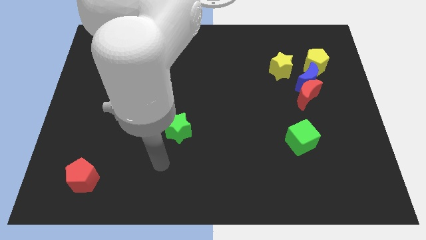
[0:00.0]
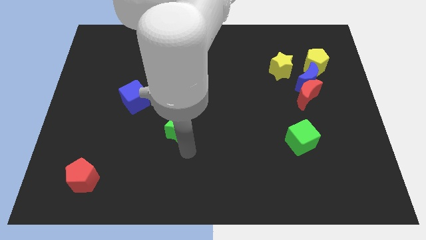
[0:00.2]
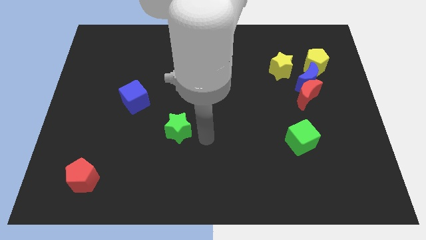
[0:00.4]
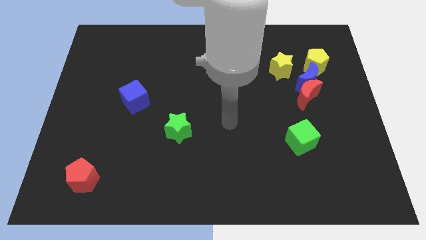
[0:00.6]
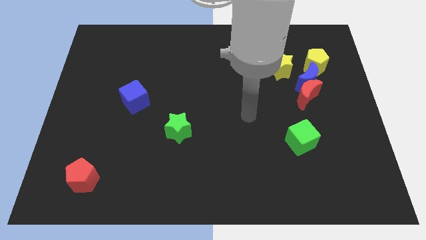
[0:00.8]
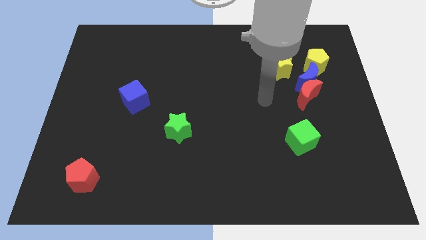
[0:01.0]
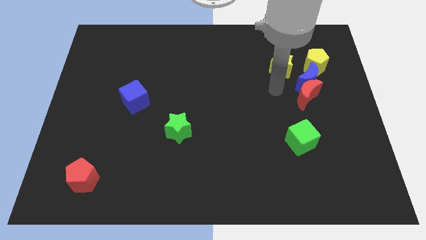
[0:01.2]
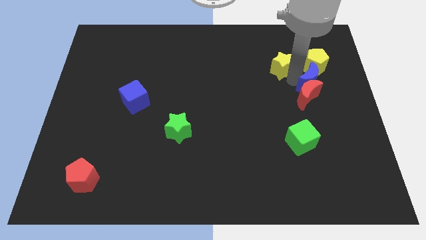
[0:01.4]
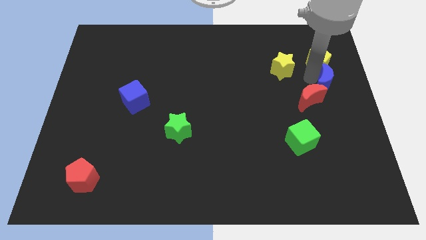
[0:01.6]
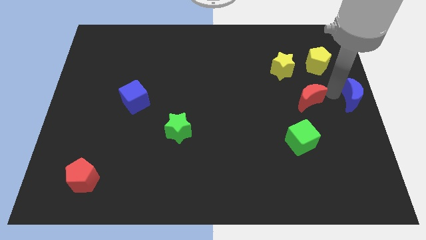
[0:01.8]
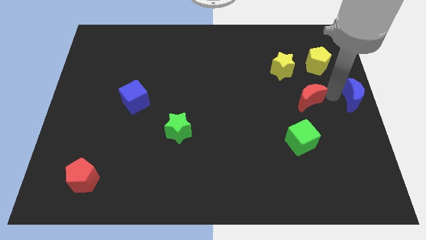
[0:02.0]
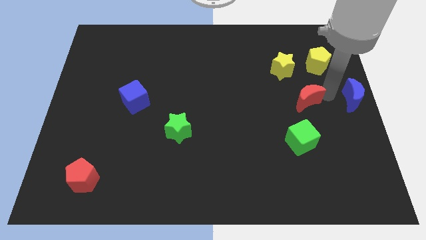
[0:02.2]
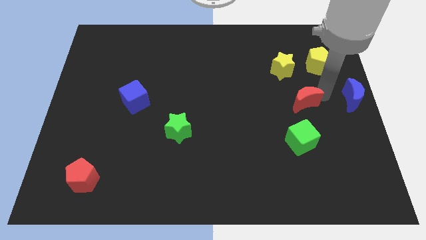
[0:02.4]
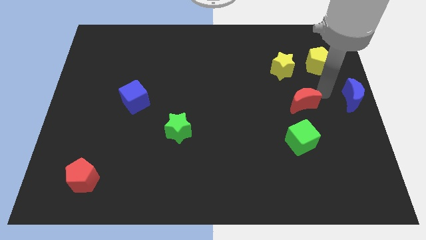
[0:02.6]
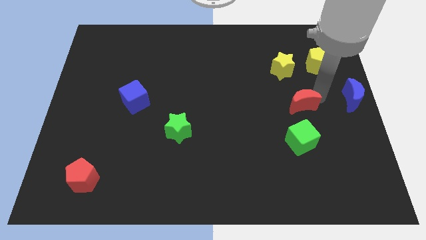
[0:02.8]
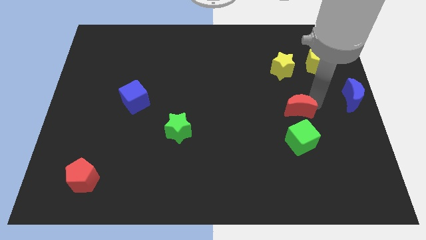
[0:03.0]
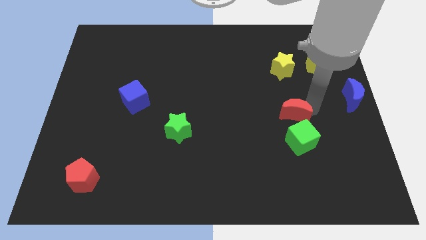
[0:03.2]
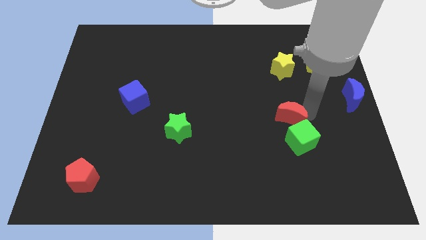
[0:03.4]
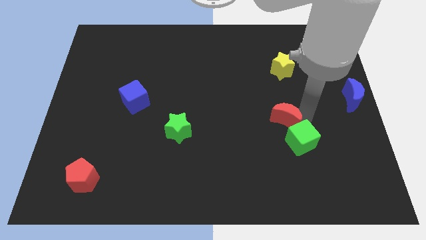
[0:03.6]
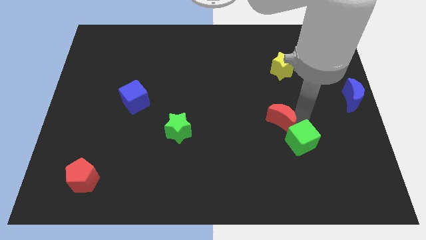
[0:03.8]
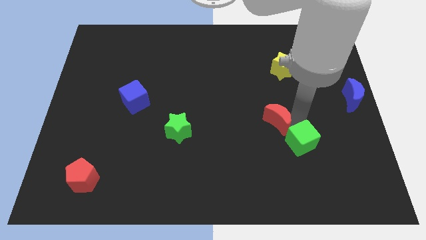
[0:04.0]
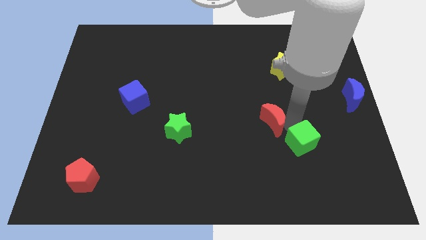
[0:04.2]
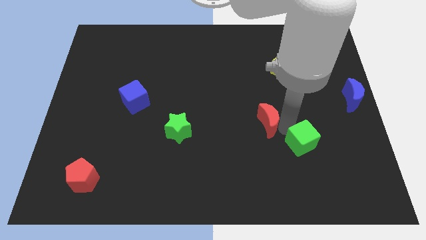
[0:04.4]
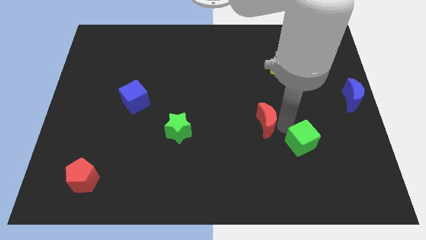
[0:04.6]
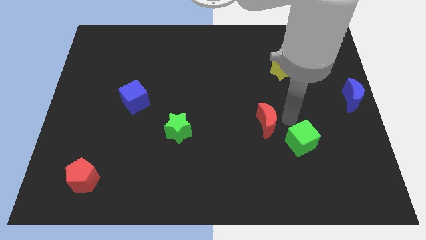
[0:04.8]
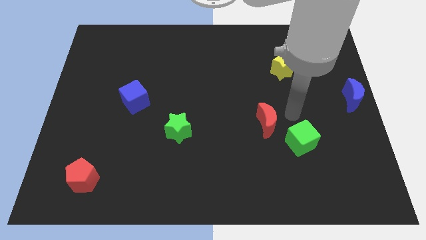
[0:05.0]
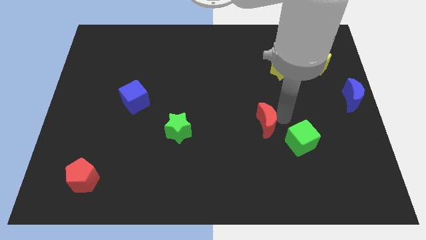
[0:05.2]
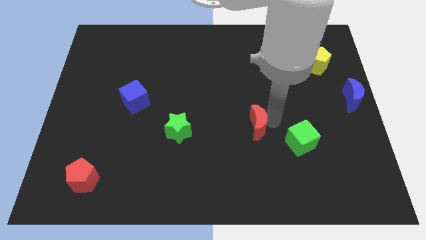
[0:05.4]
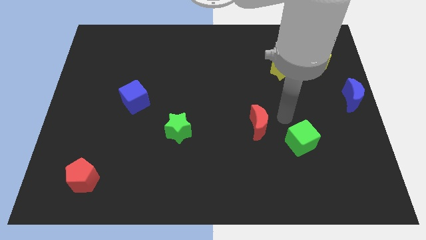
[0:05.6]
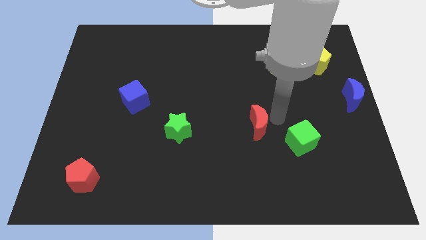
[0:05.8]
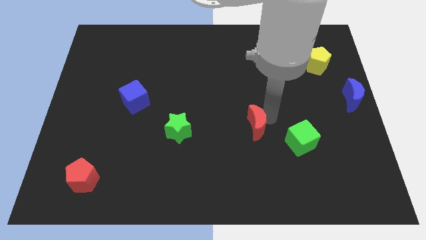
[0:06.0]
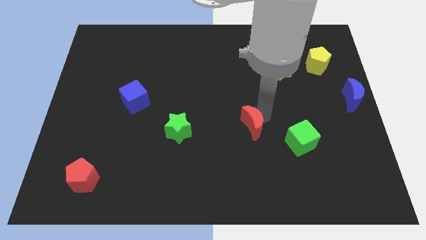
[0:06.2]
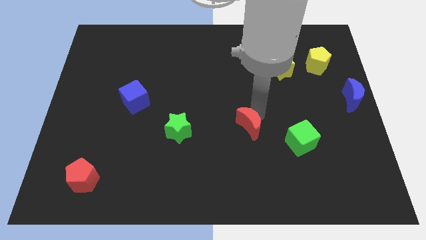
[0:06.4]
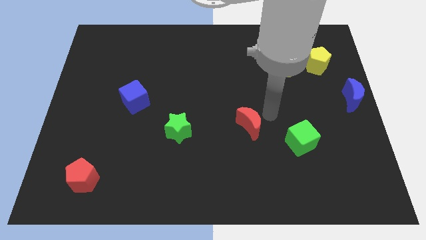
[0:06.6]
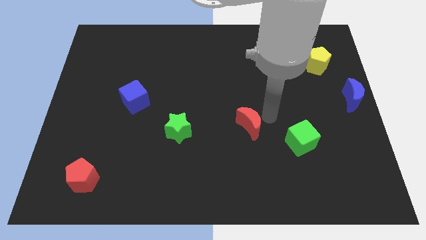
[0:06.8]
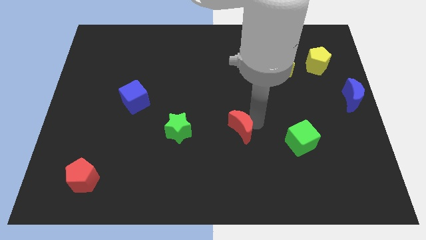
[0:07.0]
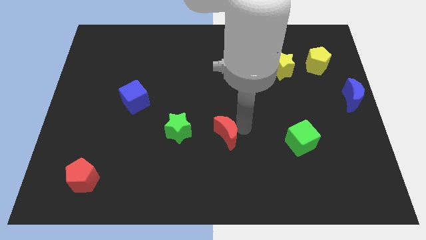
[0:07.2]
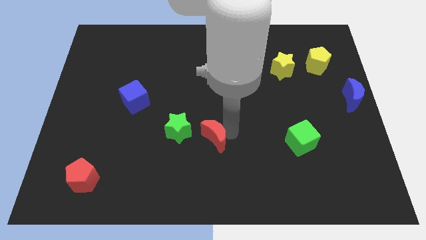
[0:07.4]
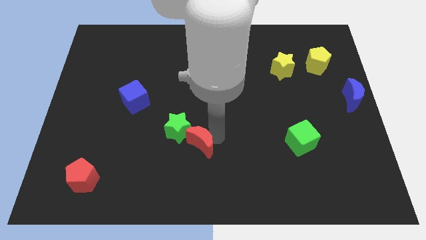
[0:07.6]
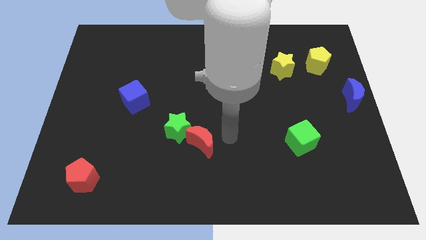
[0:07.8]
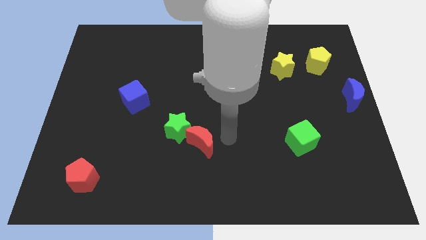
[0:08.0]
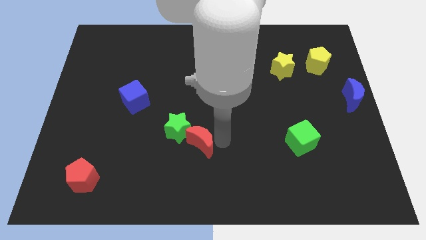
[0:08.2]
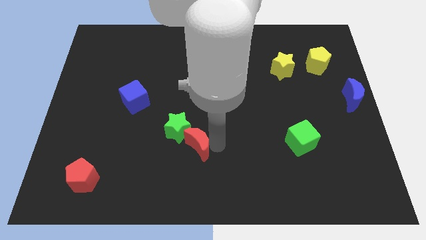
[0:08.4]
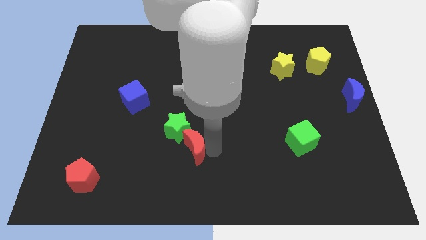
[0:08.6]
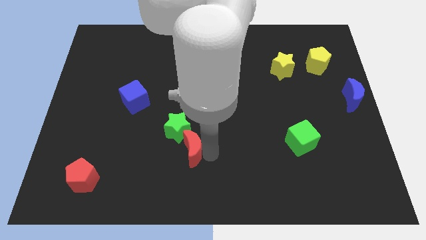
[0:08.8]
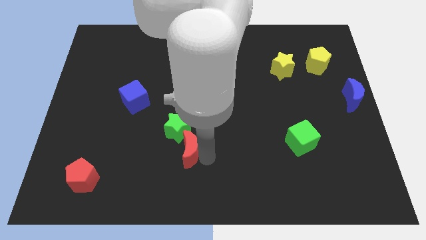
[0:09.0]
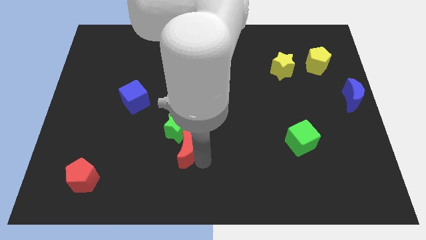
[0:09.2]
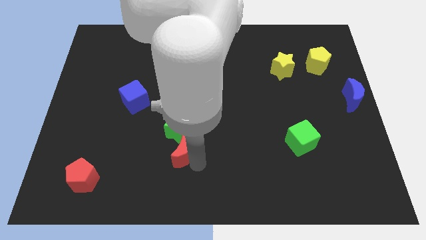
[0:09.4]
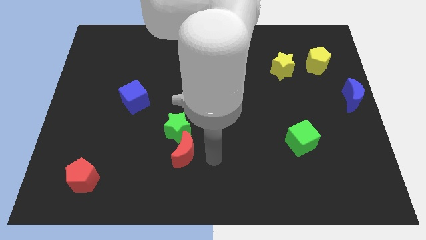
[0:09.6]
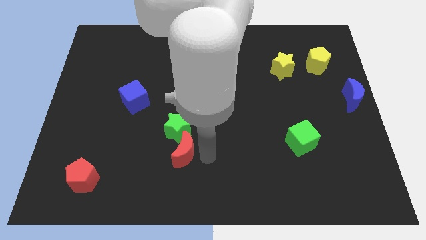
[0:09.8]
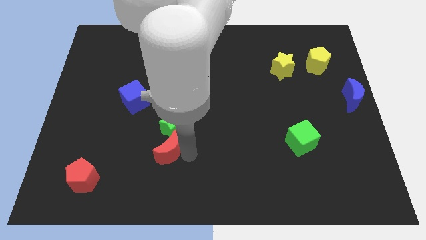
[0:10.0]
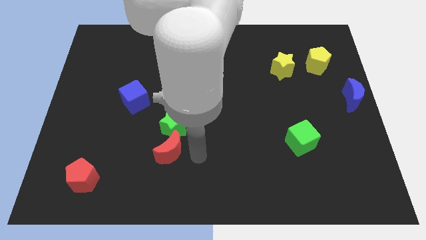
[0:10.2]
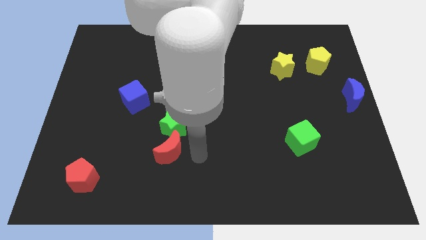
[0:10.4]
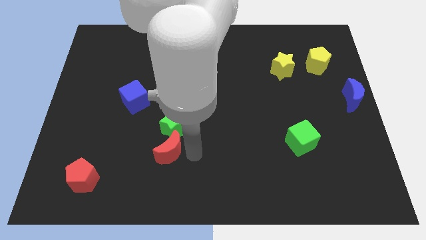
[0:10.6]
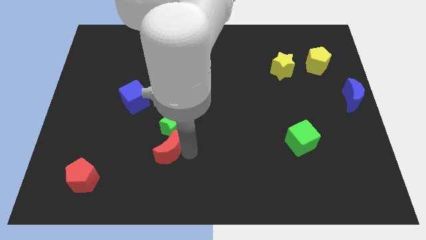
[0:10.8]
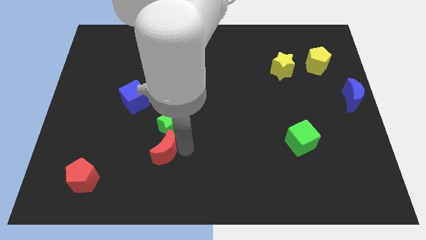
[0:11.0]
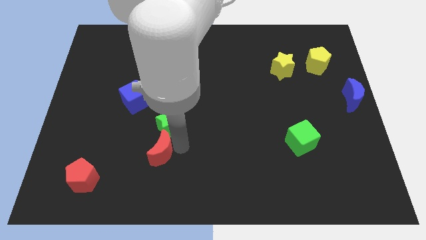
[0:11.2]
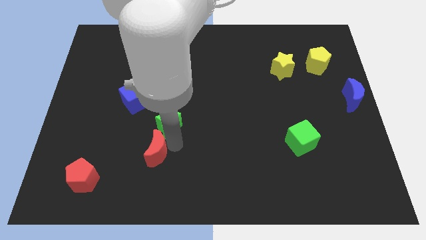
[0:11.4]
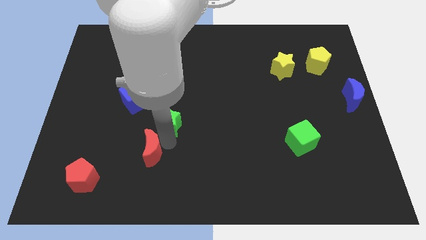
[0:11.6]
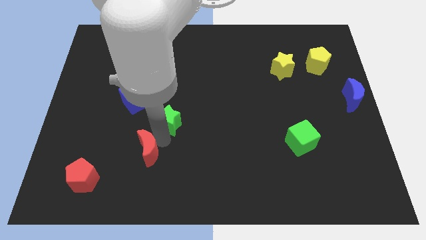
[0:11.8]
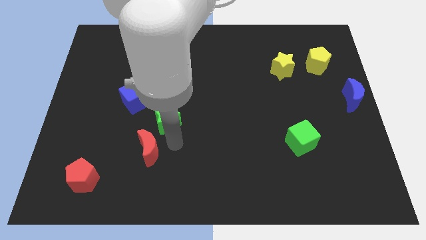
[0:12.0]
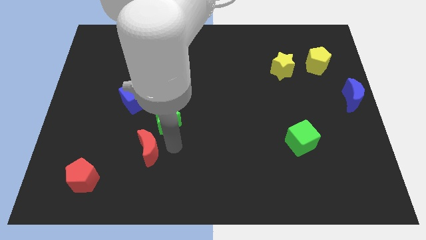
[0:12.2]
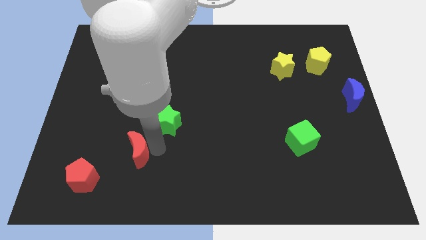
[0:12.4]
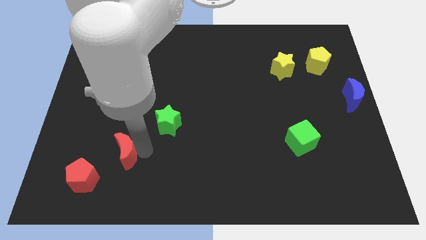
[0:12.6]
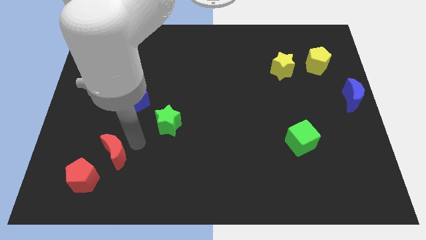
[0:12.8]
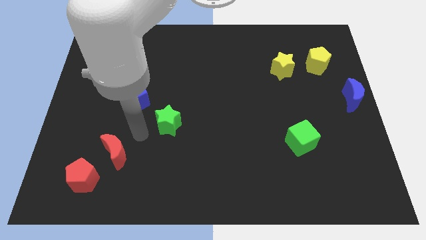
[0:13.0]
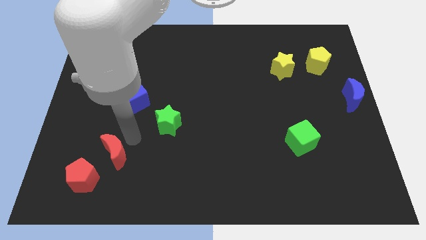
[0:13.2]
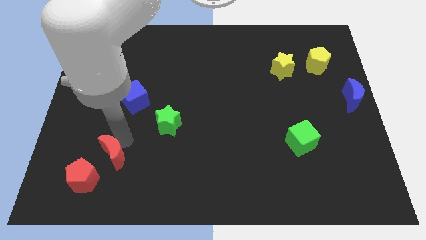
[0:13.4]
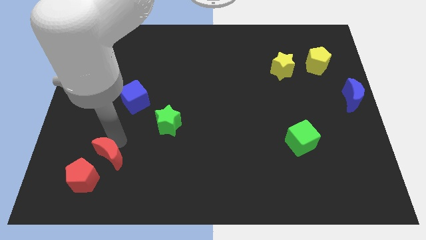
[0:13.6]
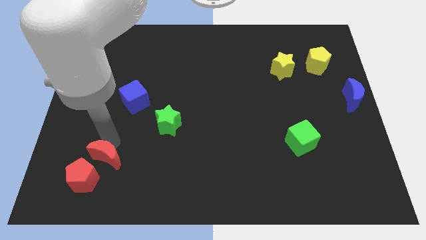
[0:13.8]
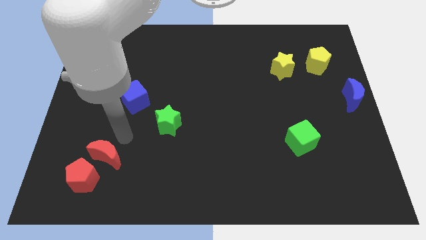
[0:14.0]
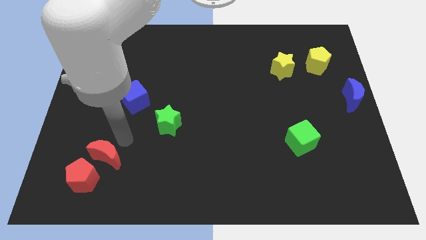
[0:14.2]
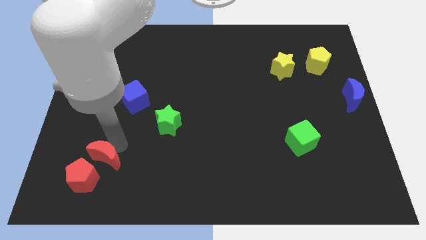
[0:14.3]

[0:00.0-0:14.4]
push the red moon next to the red pentagon

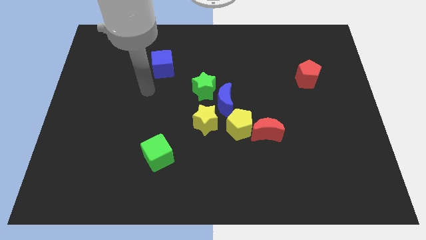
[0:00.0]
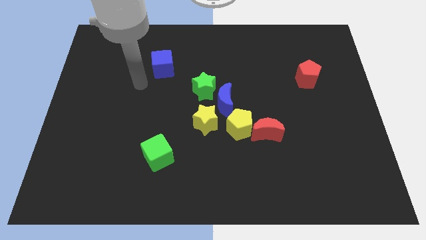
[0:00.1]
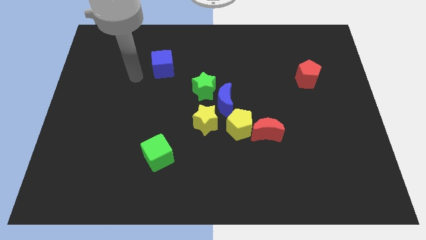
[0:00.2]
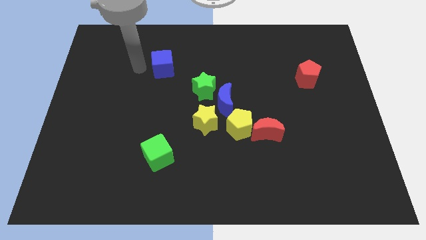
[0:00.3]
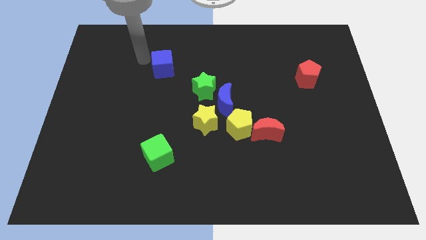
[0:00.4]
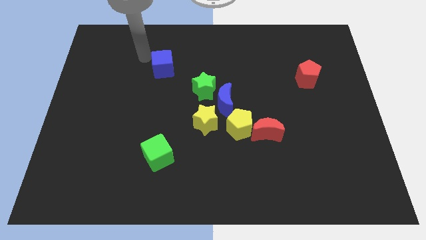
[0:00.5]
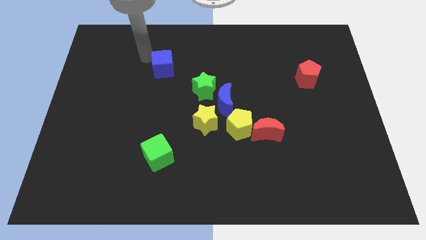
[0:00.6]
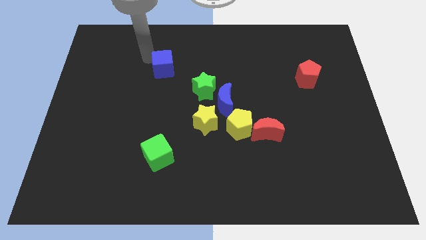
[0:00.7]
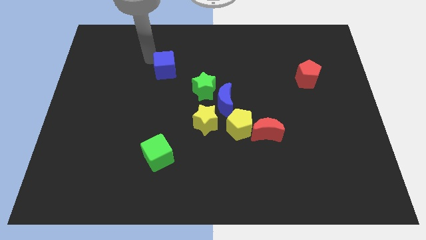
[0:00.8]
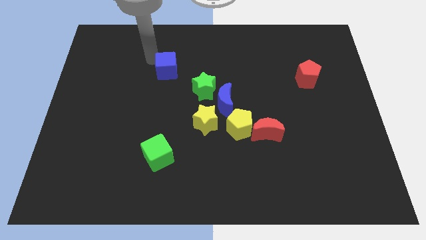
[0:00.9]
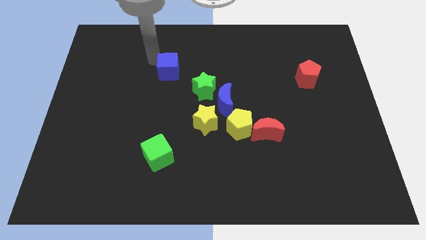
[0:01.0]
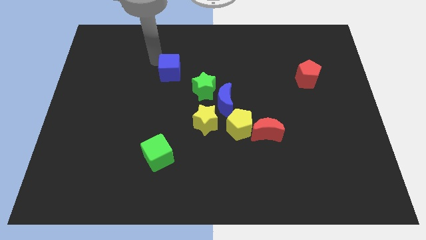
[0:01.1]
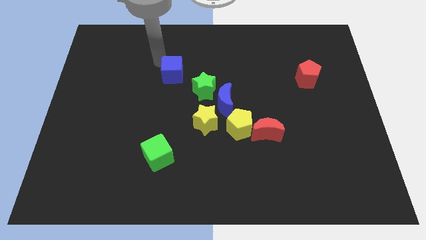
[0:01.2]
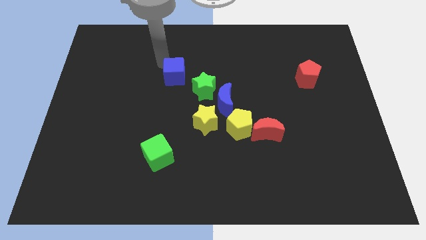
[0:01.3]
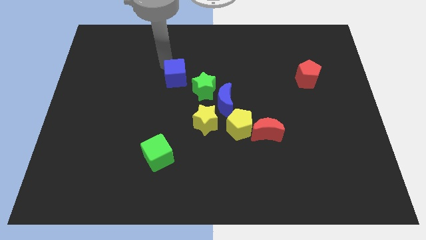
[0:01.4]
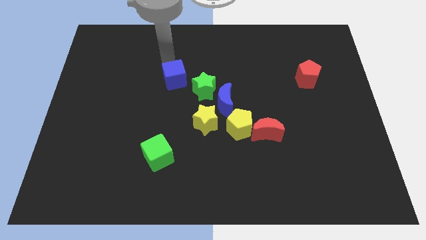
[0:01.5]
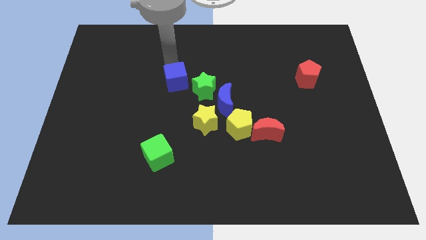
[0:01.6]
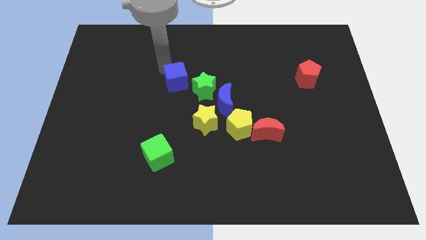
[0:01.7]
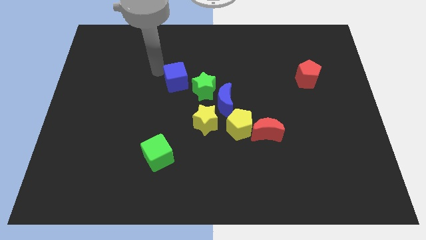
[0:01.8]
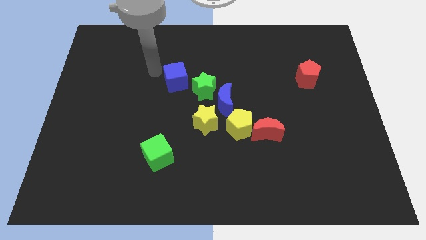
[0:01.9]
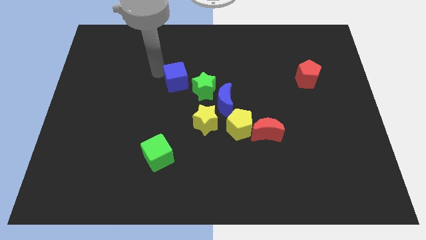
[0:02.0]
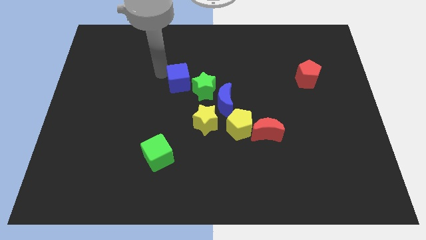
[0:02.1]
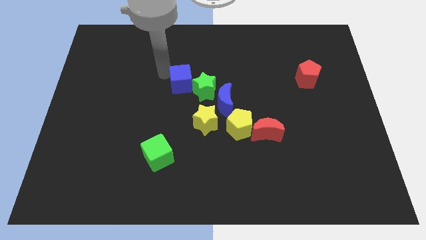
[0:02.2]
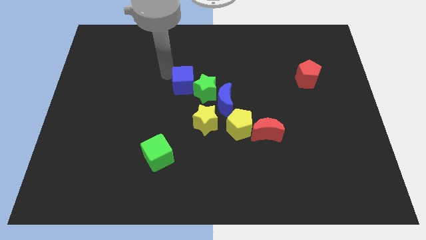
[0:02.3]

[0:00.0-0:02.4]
slide the blue cube close to the green star
